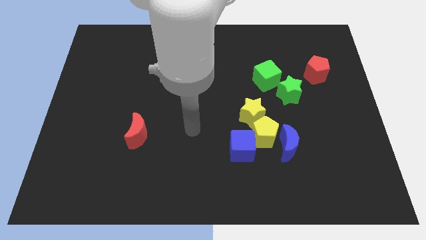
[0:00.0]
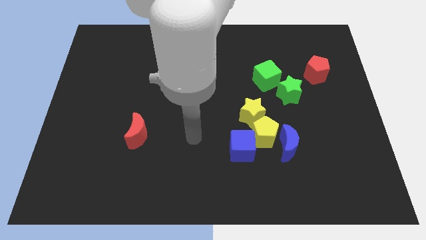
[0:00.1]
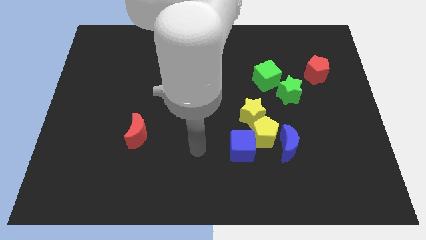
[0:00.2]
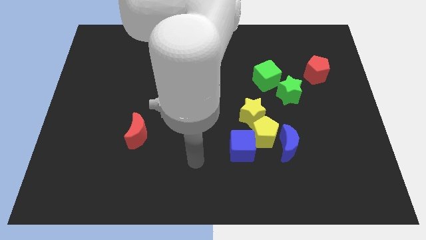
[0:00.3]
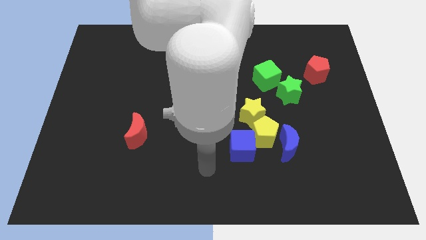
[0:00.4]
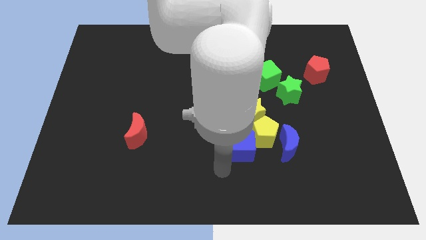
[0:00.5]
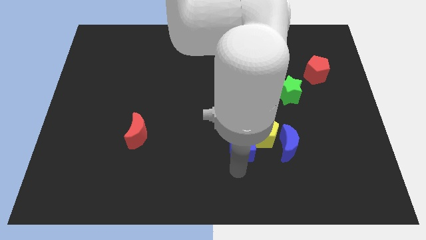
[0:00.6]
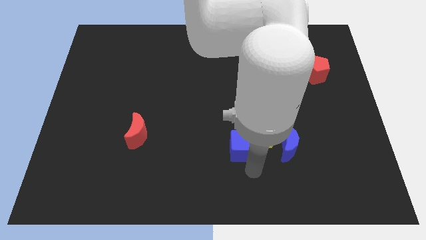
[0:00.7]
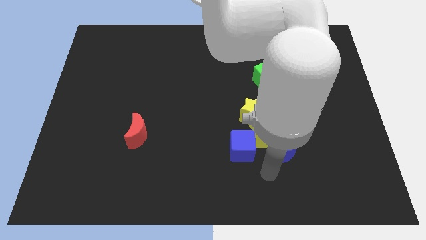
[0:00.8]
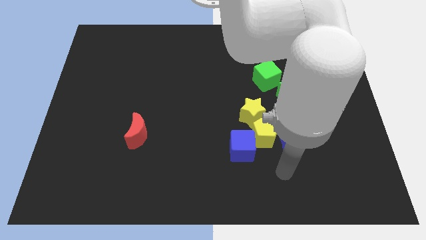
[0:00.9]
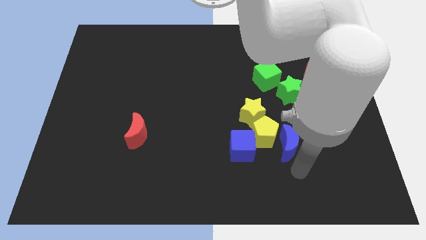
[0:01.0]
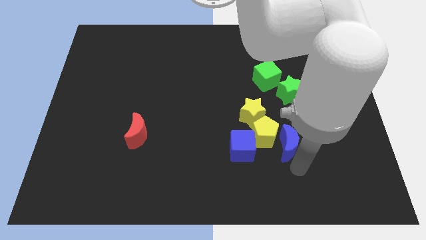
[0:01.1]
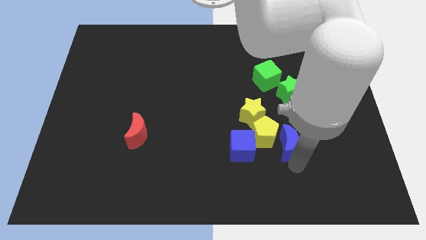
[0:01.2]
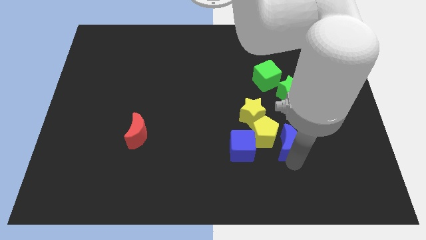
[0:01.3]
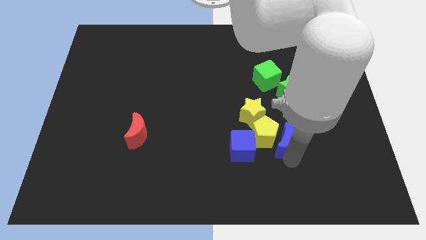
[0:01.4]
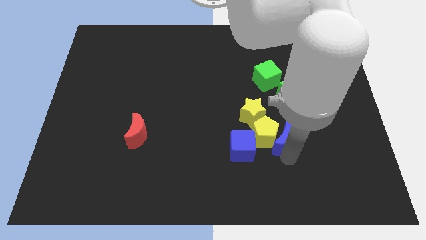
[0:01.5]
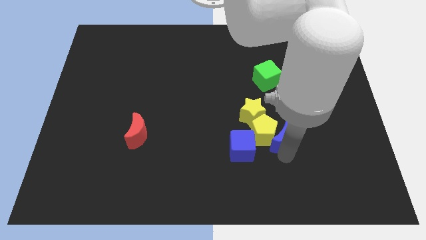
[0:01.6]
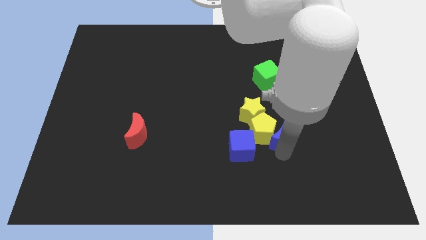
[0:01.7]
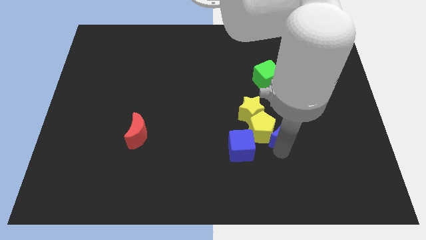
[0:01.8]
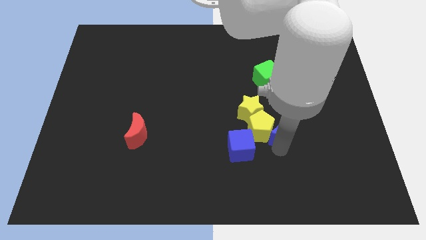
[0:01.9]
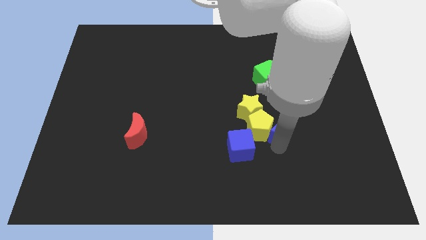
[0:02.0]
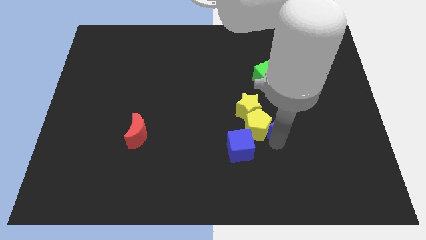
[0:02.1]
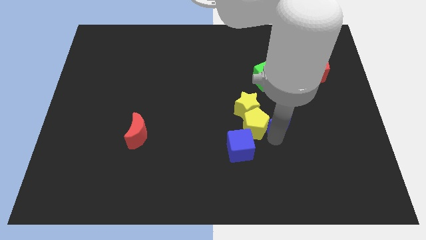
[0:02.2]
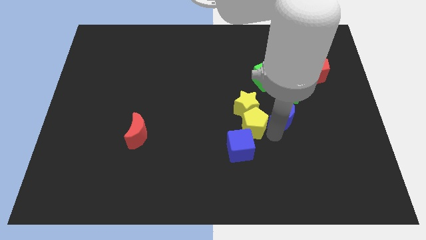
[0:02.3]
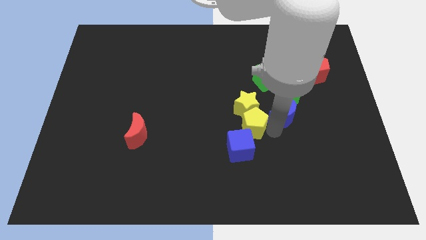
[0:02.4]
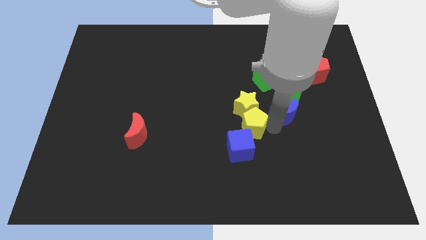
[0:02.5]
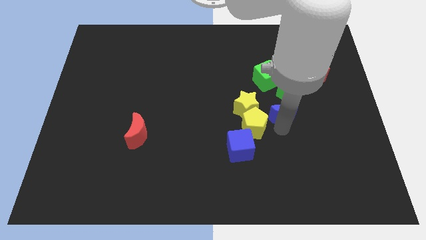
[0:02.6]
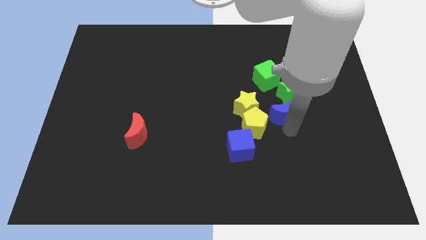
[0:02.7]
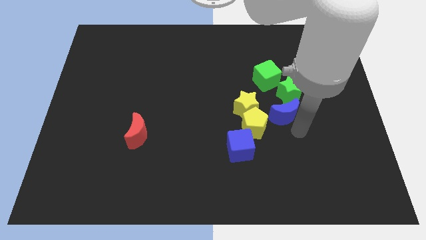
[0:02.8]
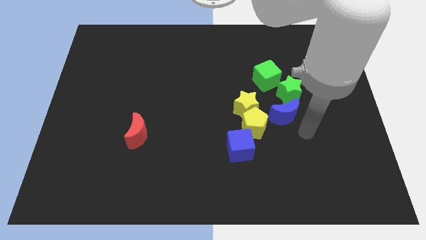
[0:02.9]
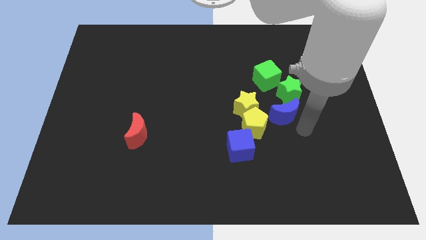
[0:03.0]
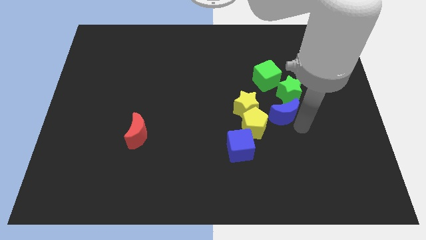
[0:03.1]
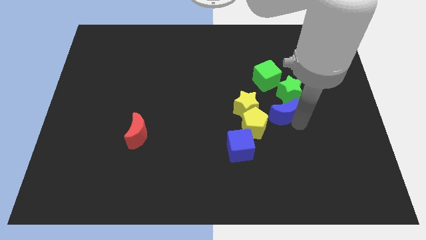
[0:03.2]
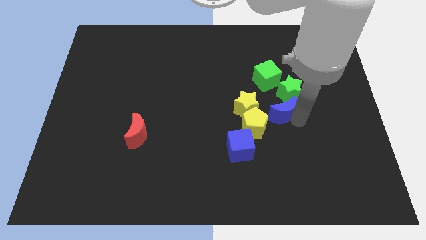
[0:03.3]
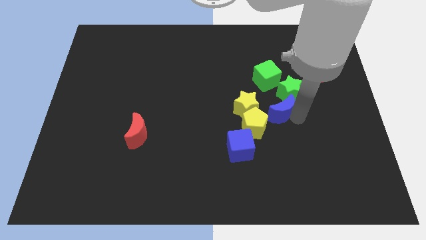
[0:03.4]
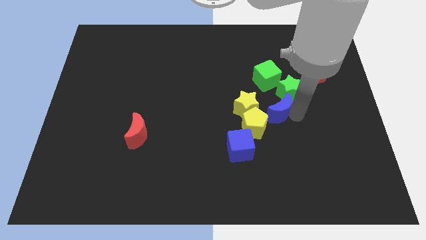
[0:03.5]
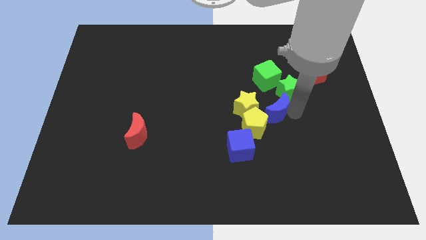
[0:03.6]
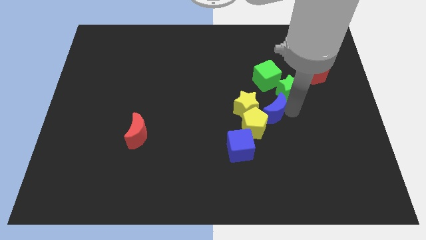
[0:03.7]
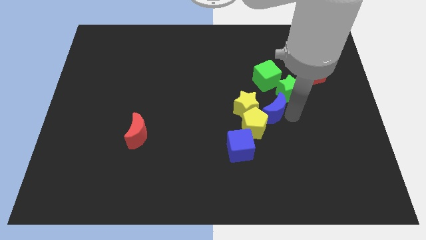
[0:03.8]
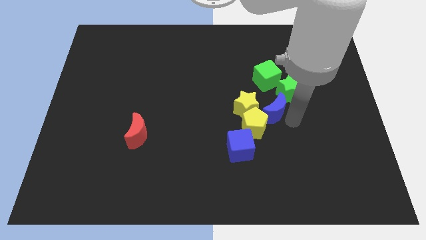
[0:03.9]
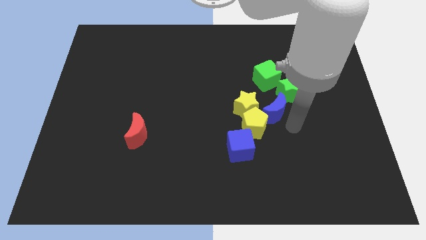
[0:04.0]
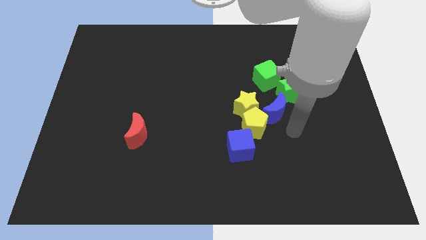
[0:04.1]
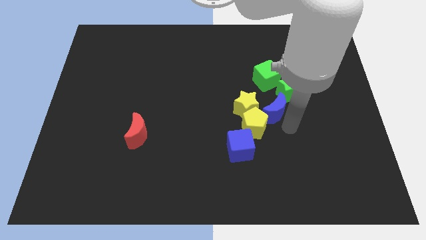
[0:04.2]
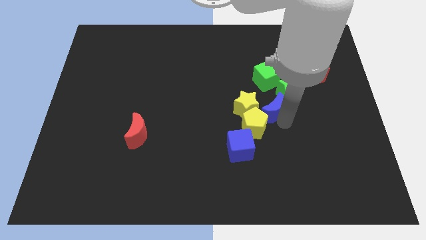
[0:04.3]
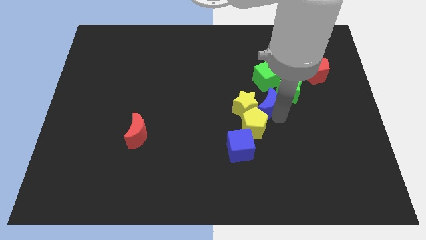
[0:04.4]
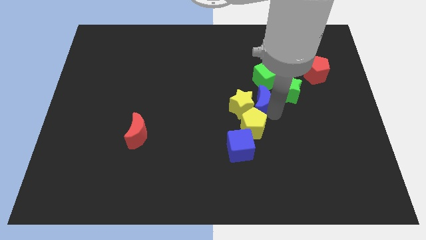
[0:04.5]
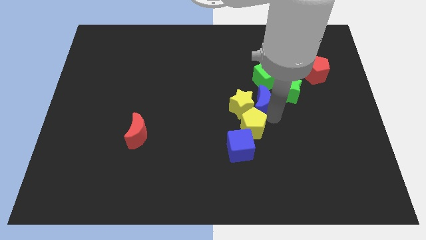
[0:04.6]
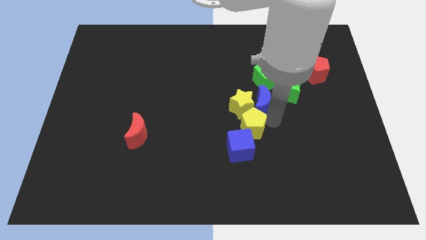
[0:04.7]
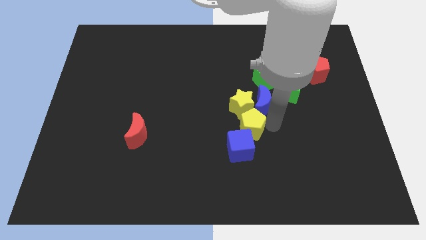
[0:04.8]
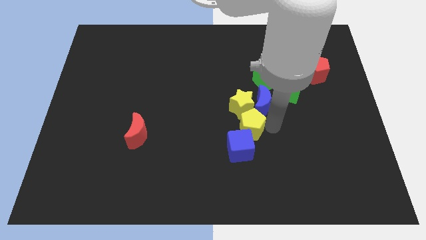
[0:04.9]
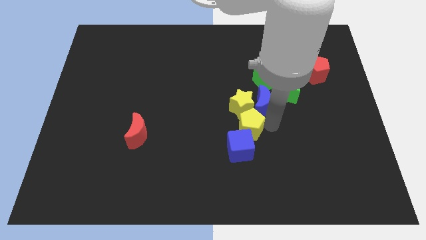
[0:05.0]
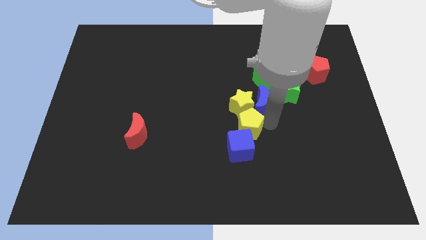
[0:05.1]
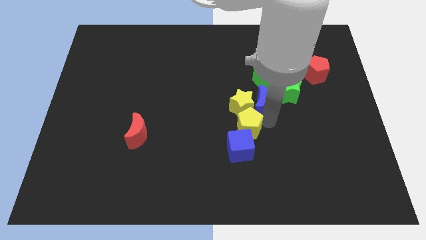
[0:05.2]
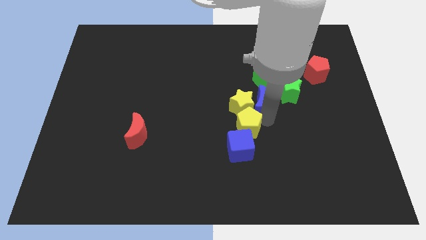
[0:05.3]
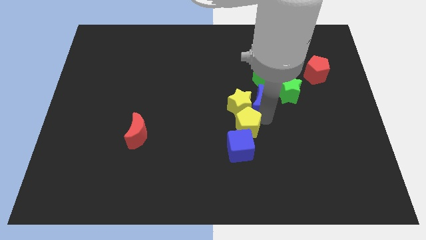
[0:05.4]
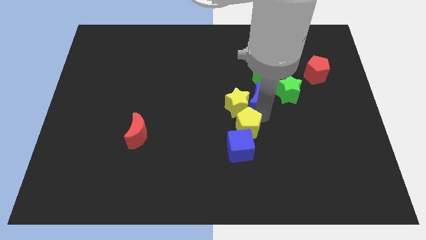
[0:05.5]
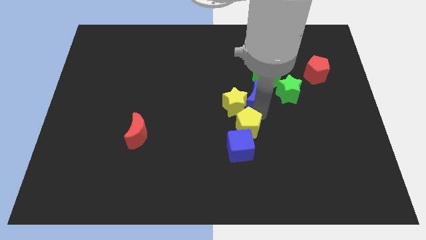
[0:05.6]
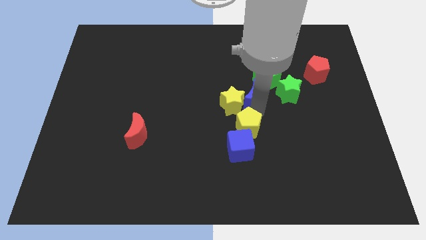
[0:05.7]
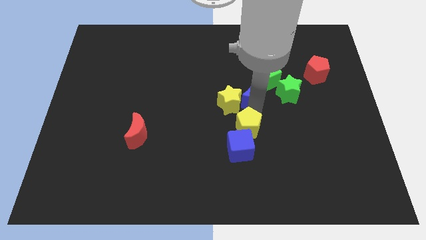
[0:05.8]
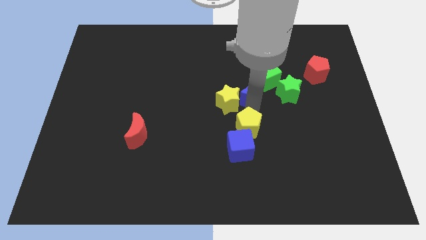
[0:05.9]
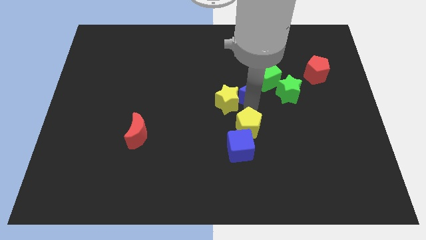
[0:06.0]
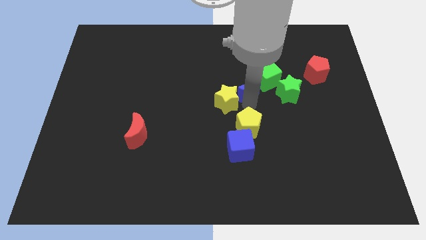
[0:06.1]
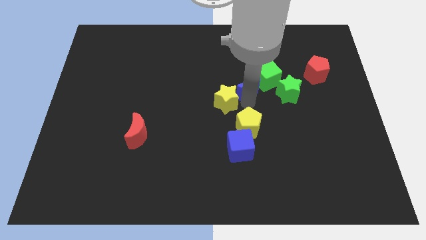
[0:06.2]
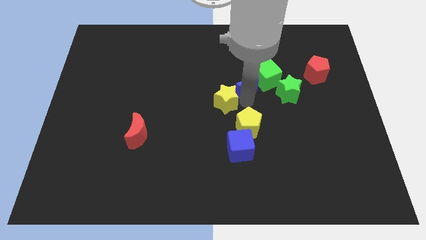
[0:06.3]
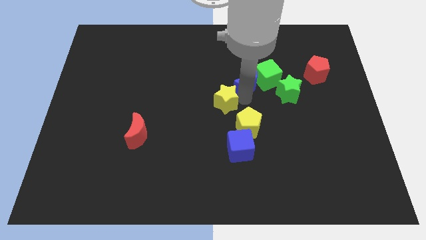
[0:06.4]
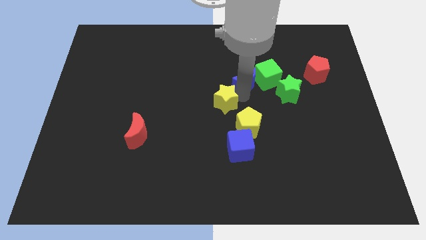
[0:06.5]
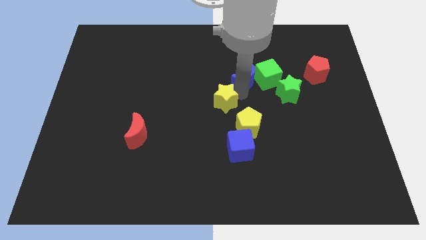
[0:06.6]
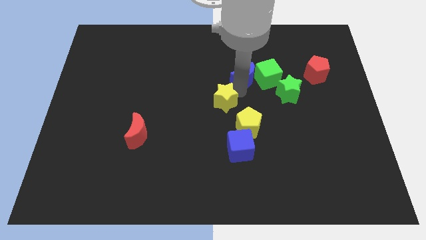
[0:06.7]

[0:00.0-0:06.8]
move the blue moon to the top left of the green cube
